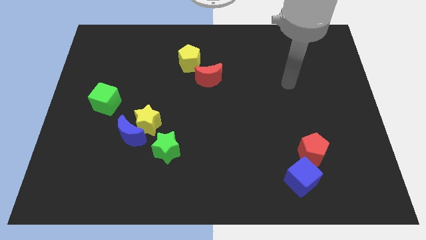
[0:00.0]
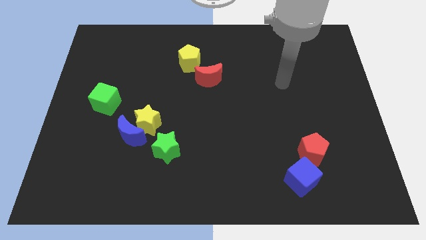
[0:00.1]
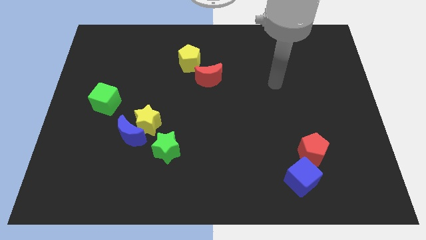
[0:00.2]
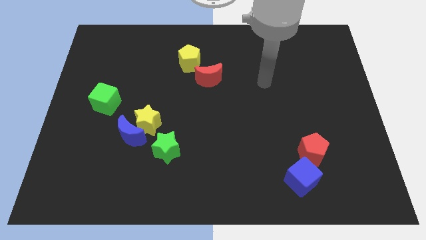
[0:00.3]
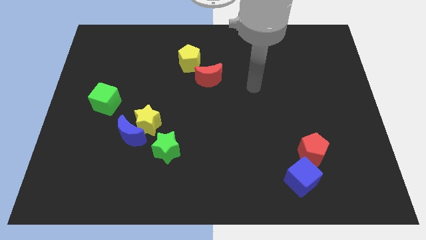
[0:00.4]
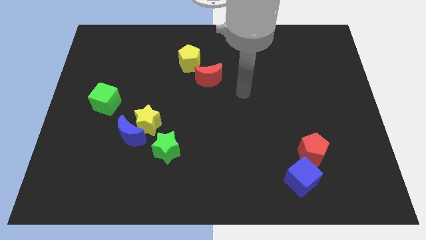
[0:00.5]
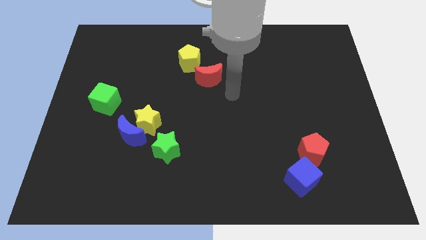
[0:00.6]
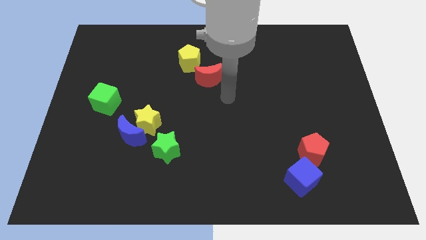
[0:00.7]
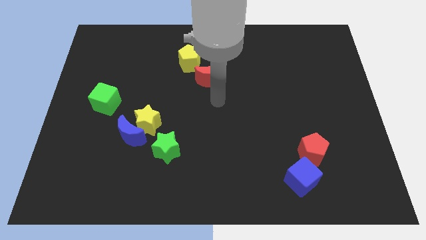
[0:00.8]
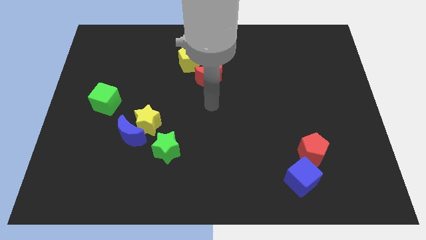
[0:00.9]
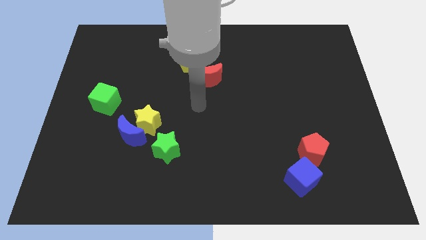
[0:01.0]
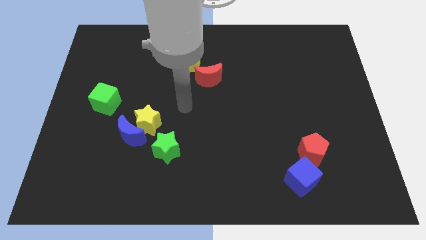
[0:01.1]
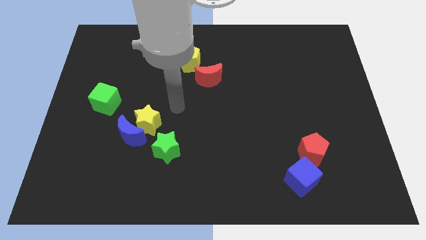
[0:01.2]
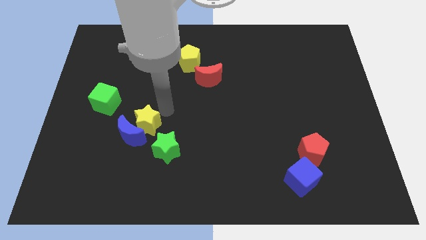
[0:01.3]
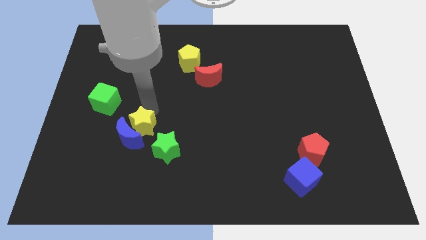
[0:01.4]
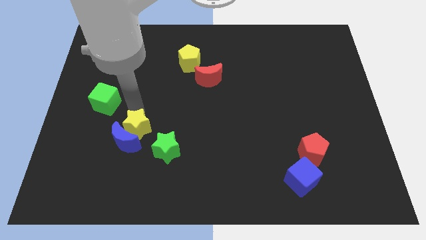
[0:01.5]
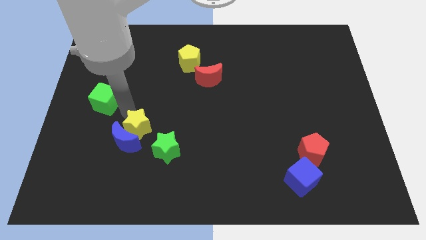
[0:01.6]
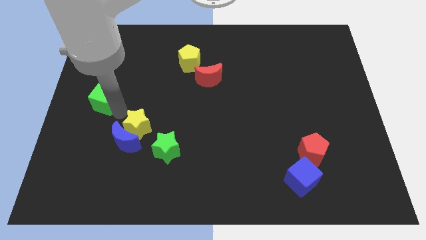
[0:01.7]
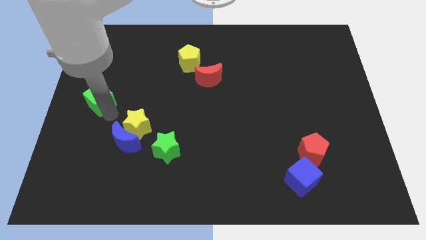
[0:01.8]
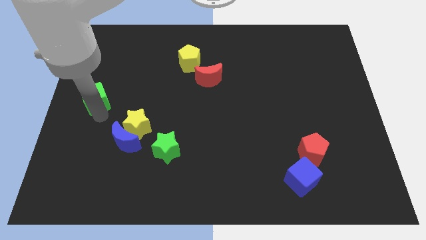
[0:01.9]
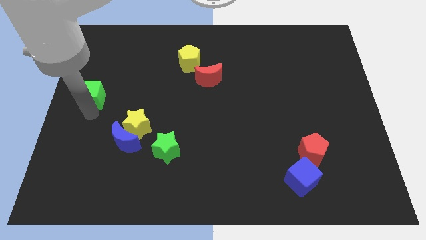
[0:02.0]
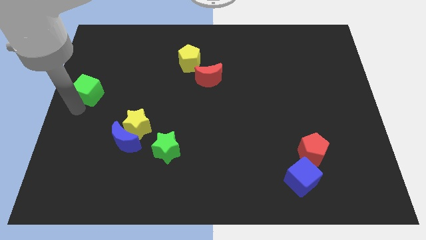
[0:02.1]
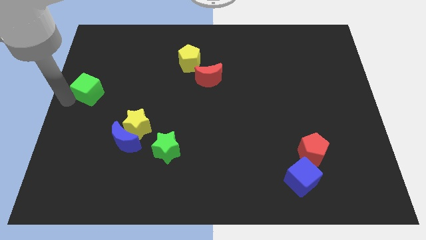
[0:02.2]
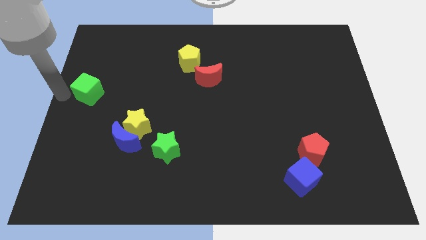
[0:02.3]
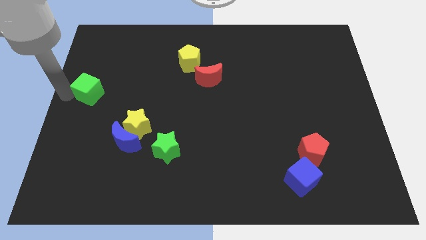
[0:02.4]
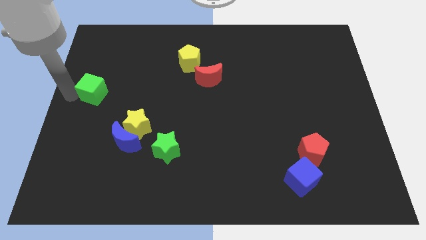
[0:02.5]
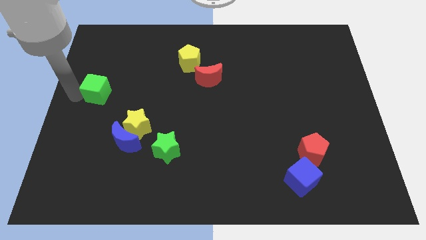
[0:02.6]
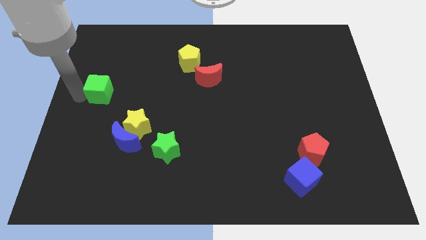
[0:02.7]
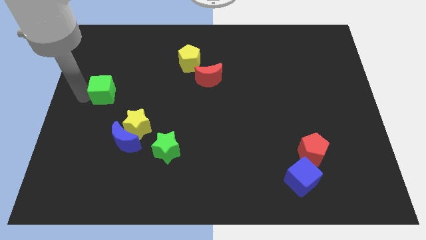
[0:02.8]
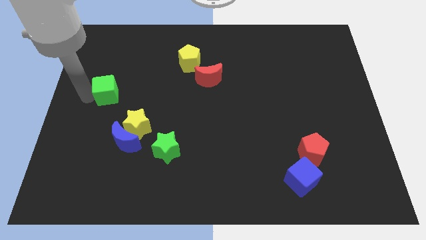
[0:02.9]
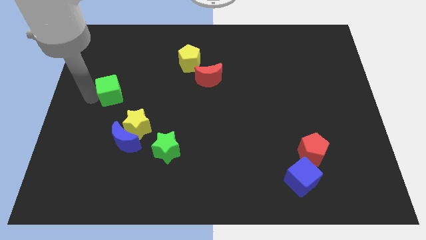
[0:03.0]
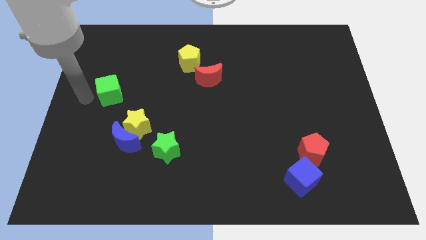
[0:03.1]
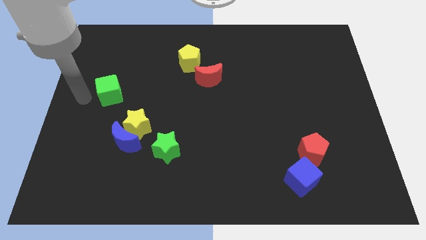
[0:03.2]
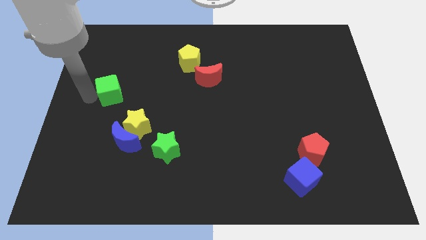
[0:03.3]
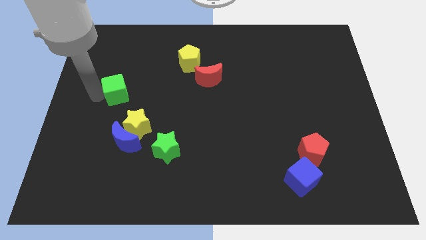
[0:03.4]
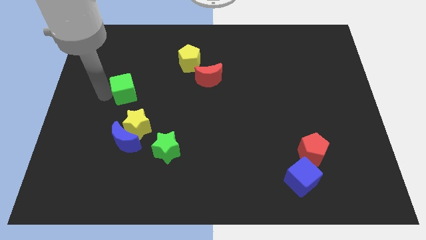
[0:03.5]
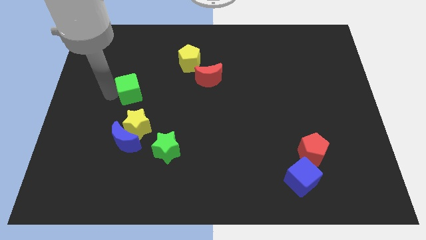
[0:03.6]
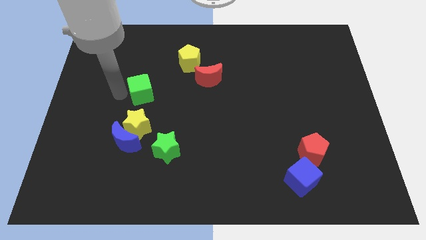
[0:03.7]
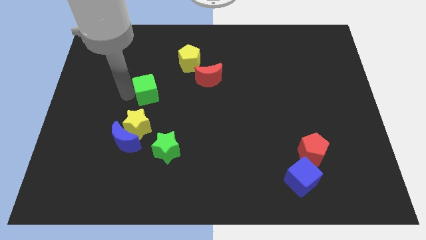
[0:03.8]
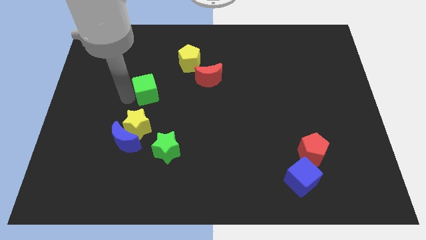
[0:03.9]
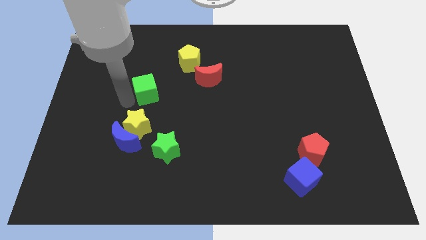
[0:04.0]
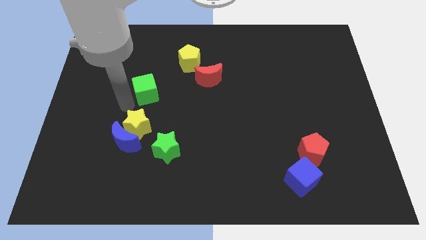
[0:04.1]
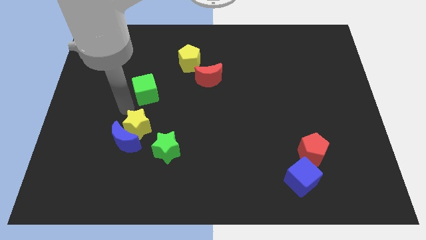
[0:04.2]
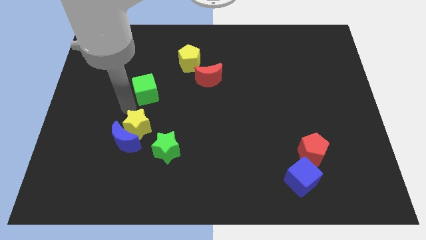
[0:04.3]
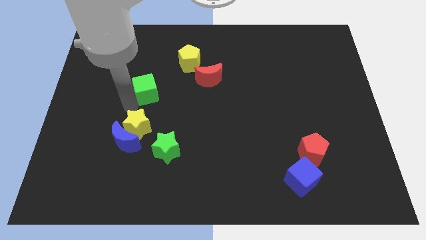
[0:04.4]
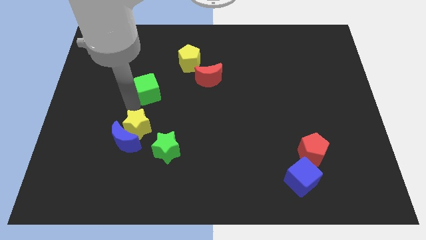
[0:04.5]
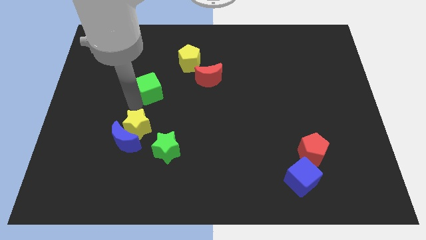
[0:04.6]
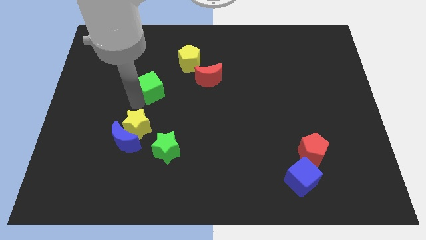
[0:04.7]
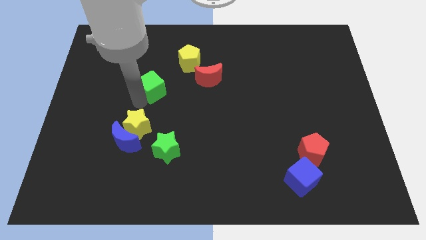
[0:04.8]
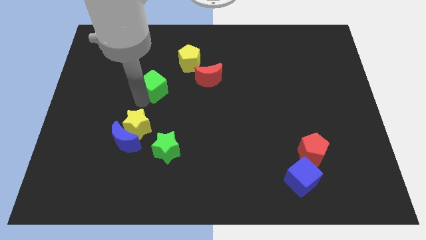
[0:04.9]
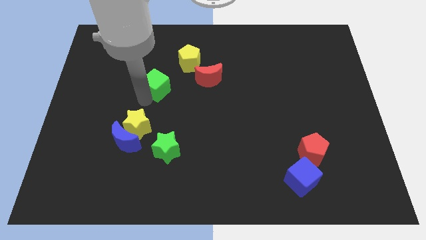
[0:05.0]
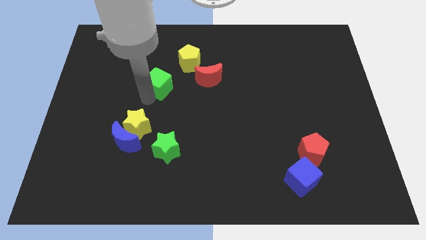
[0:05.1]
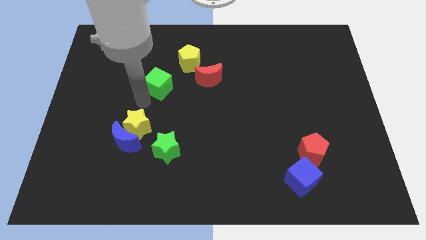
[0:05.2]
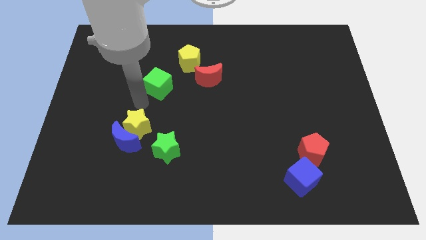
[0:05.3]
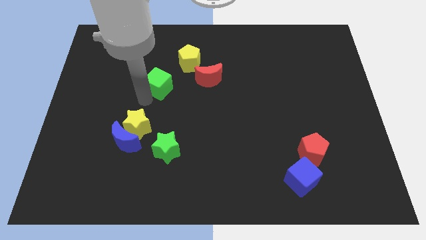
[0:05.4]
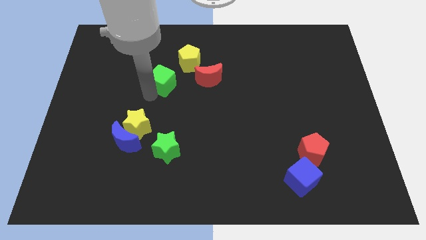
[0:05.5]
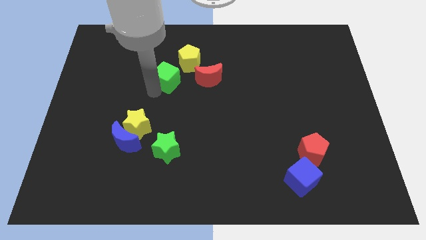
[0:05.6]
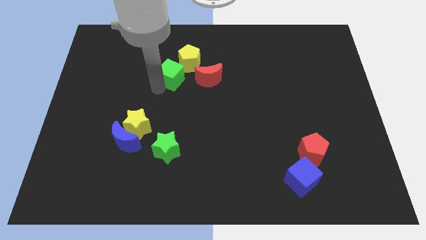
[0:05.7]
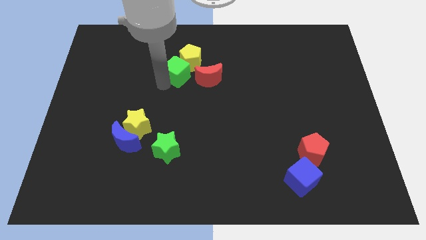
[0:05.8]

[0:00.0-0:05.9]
move the green cube next to the yellow pentagon

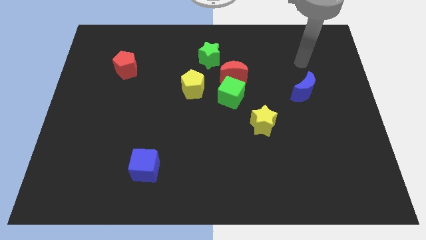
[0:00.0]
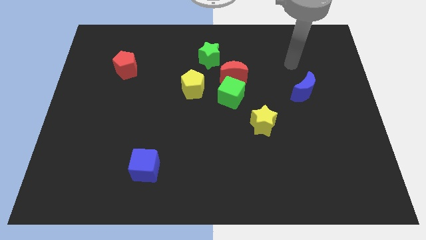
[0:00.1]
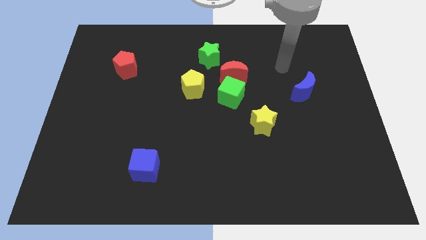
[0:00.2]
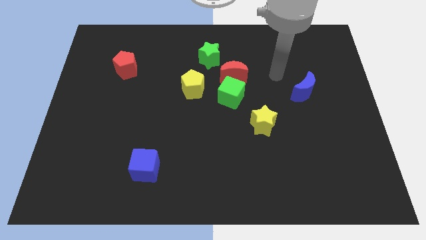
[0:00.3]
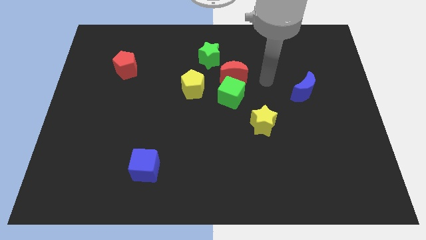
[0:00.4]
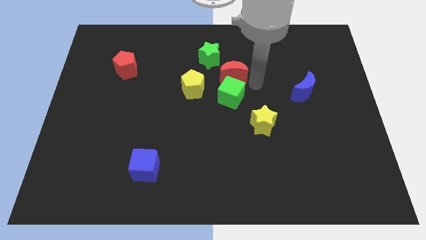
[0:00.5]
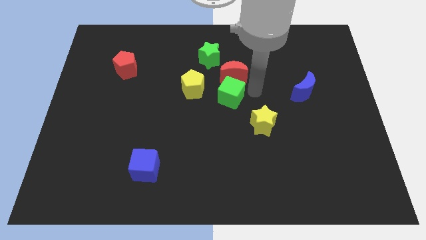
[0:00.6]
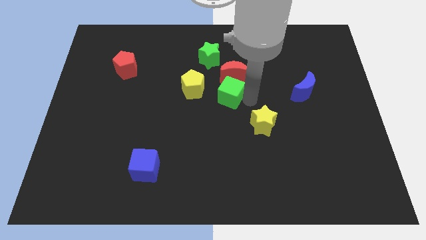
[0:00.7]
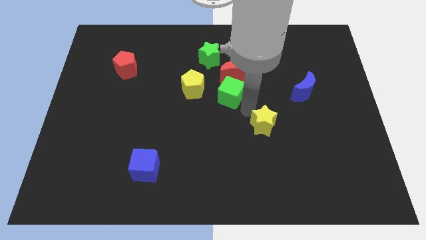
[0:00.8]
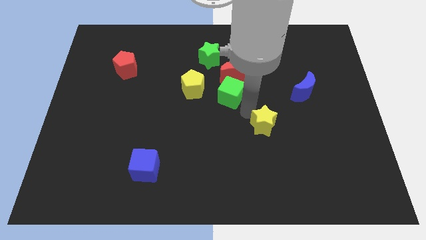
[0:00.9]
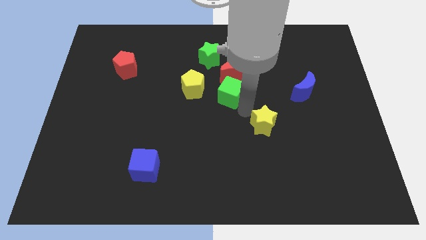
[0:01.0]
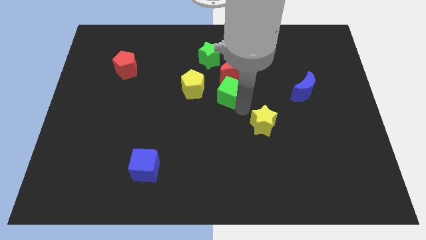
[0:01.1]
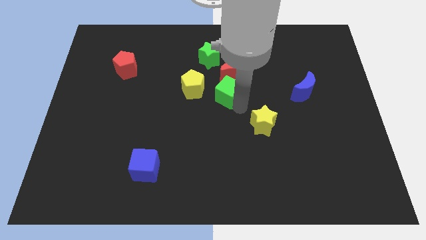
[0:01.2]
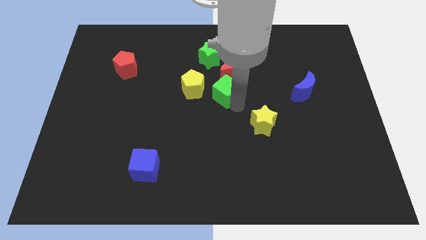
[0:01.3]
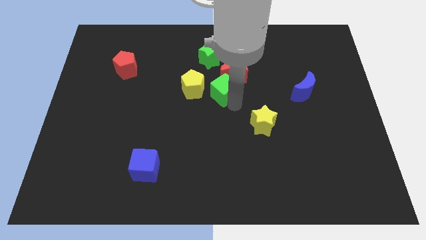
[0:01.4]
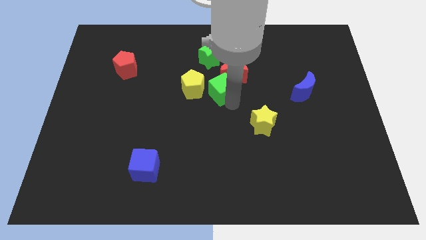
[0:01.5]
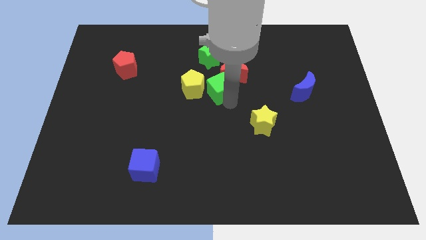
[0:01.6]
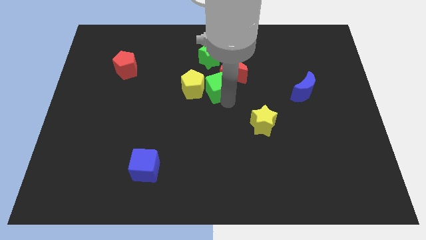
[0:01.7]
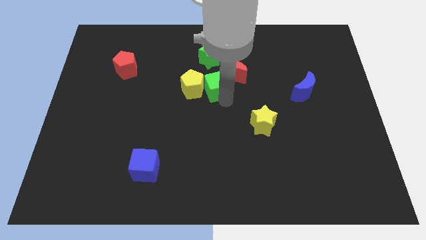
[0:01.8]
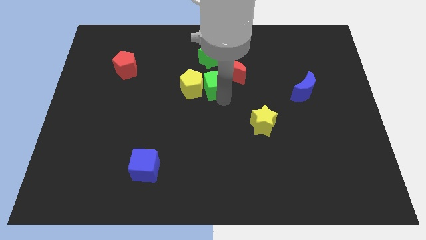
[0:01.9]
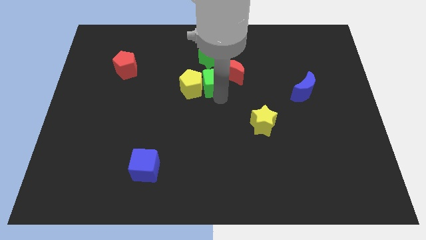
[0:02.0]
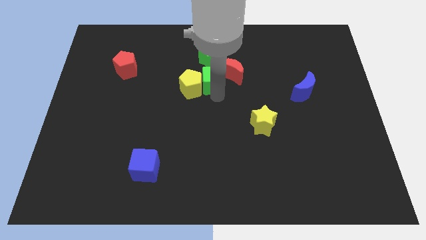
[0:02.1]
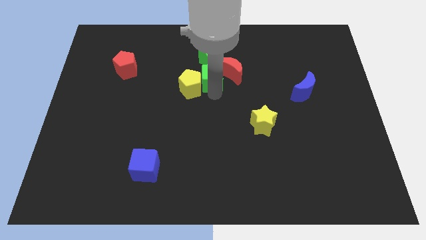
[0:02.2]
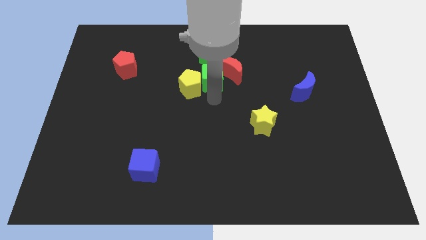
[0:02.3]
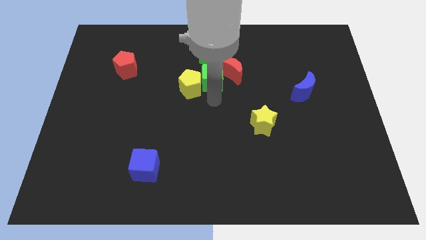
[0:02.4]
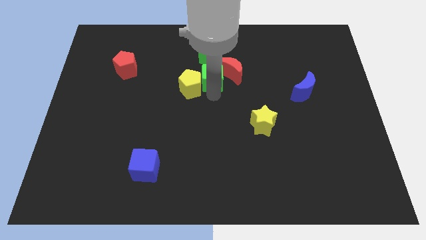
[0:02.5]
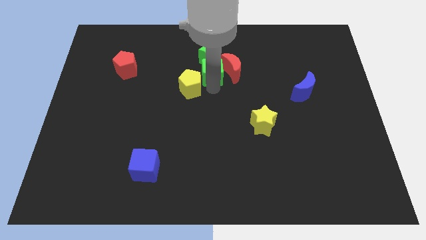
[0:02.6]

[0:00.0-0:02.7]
put the green cube close to the green star
